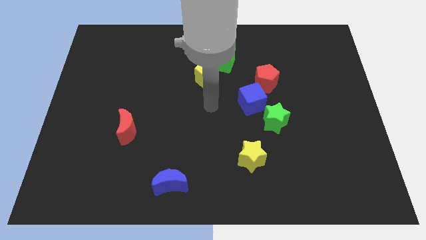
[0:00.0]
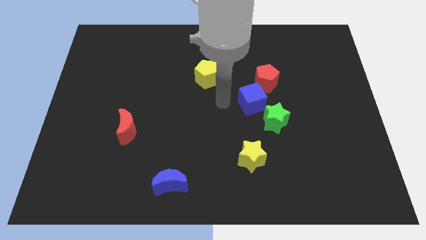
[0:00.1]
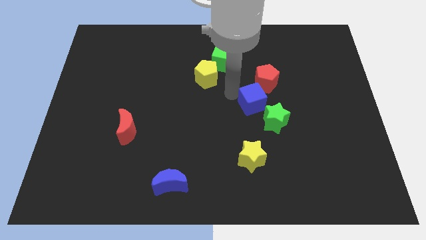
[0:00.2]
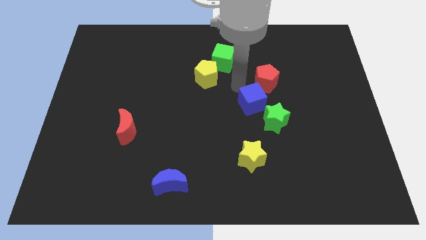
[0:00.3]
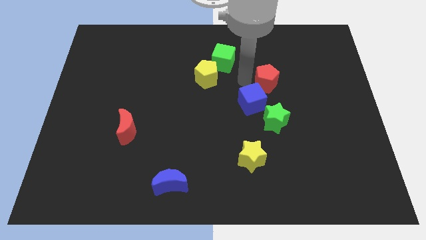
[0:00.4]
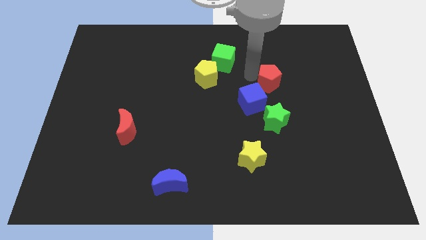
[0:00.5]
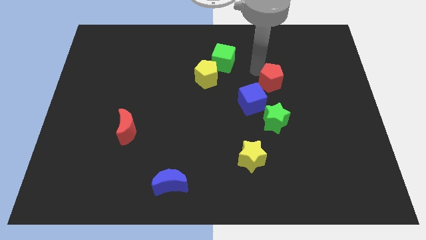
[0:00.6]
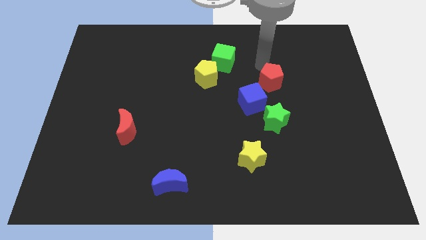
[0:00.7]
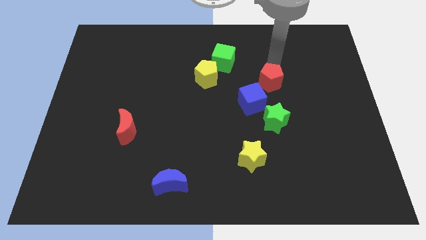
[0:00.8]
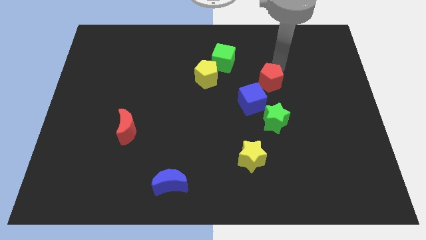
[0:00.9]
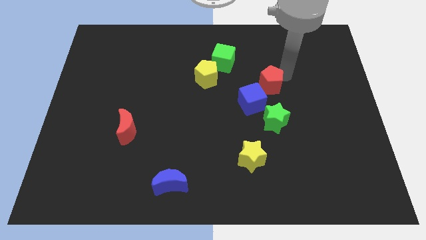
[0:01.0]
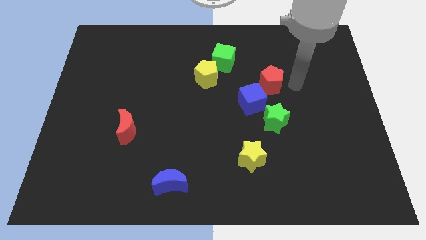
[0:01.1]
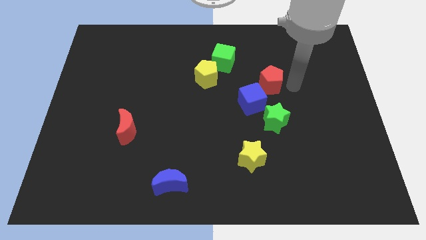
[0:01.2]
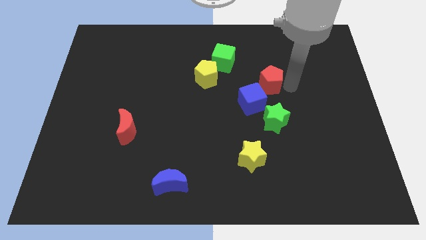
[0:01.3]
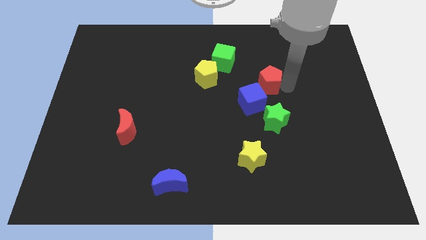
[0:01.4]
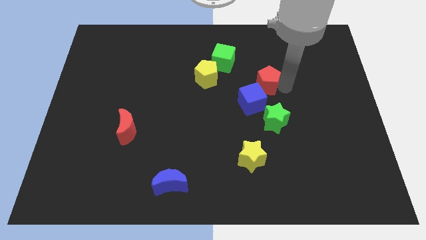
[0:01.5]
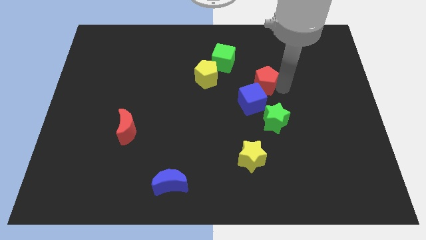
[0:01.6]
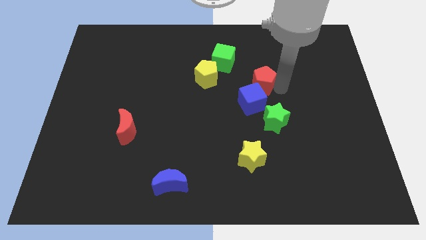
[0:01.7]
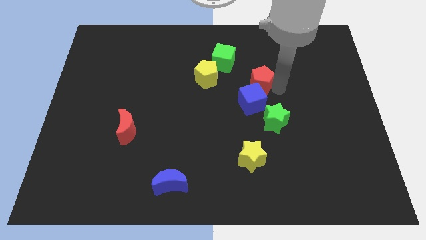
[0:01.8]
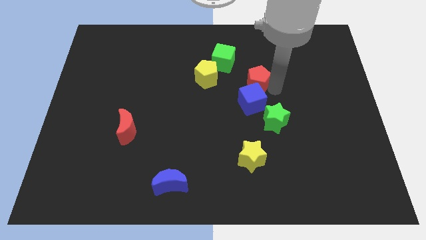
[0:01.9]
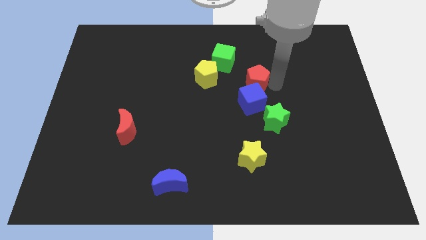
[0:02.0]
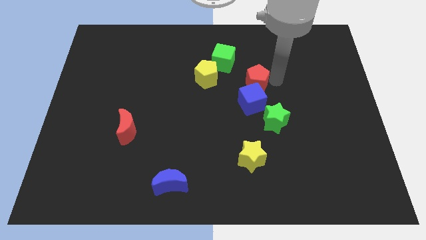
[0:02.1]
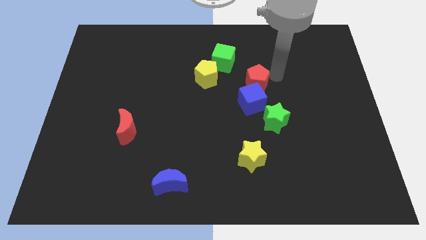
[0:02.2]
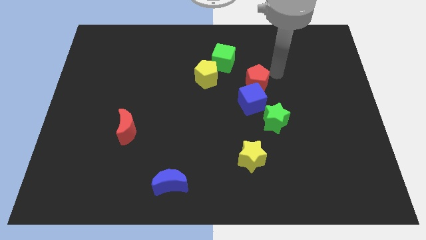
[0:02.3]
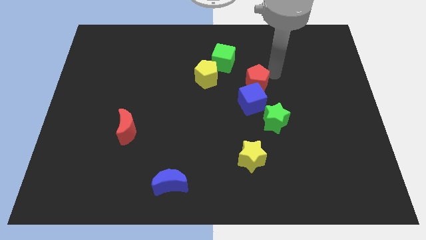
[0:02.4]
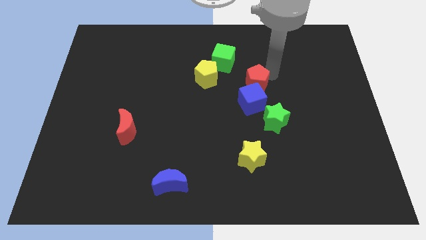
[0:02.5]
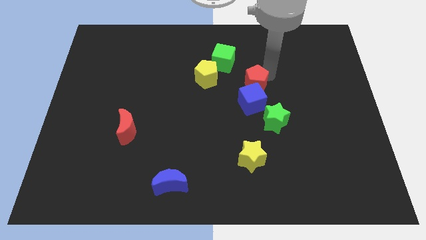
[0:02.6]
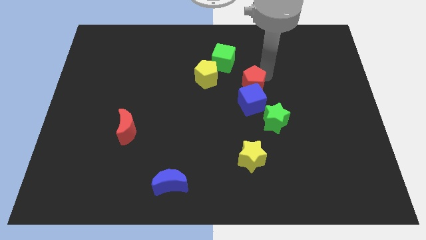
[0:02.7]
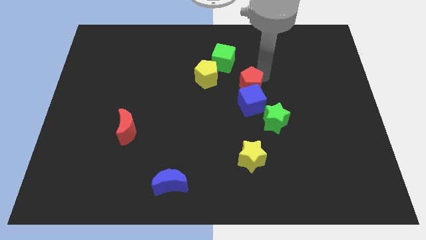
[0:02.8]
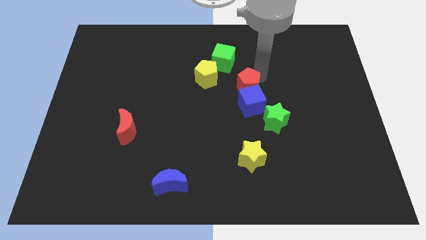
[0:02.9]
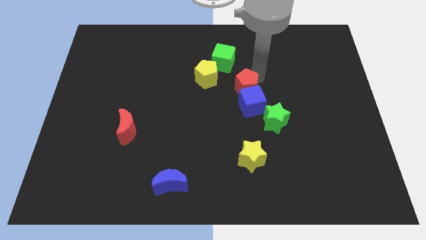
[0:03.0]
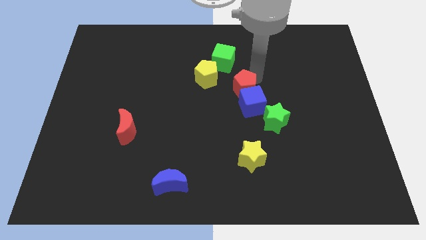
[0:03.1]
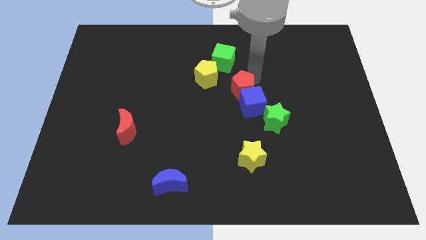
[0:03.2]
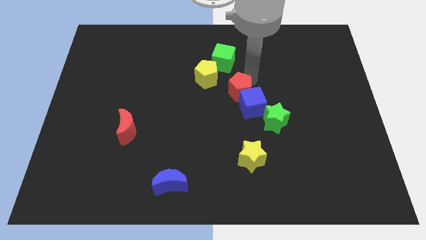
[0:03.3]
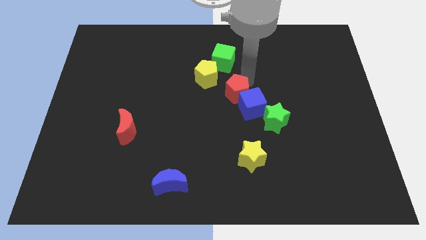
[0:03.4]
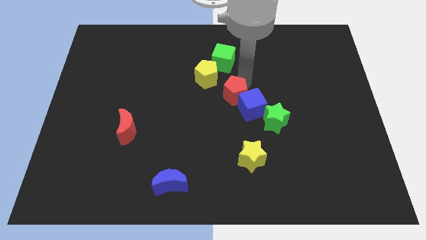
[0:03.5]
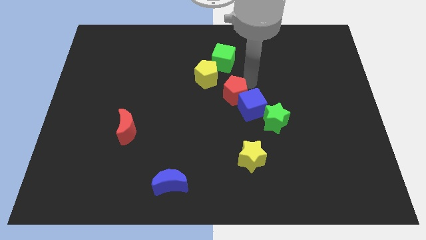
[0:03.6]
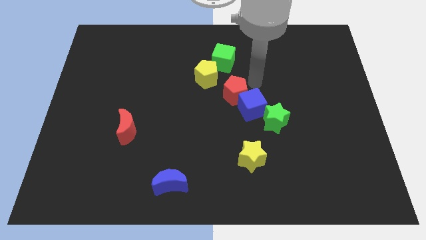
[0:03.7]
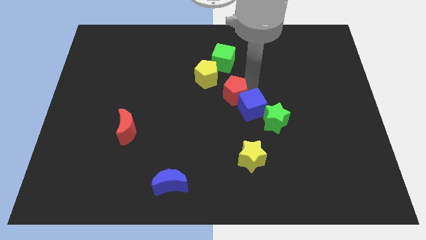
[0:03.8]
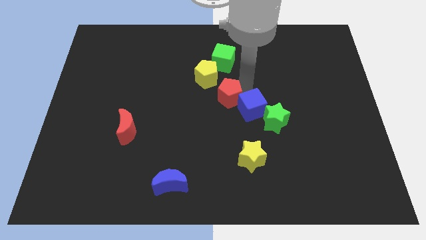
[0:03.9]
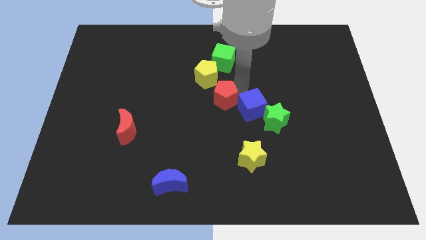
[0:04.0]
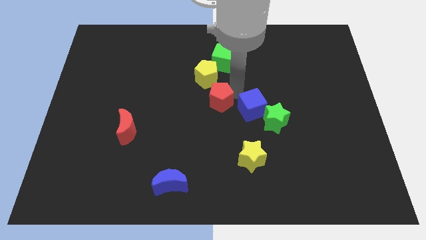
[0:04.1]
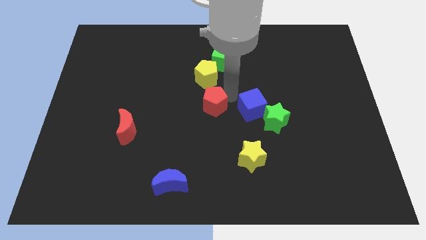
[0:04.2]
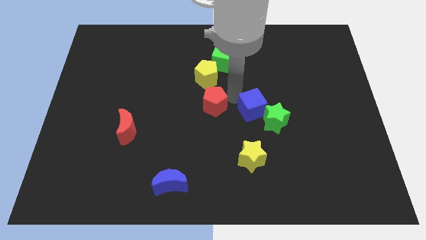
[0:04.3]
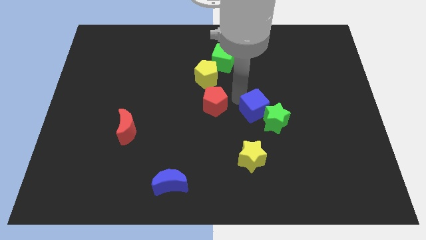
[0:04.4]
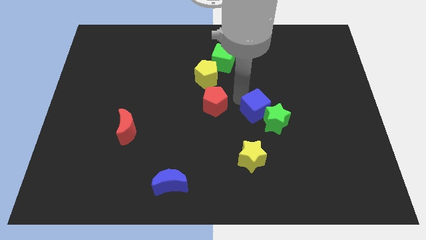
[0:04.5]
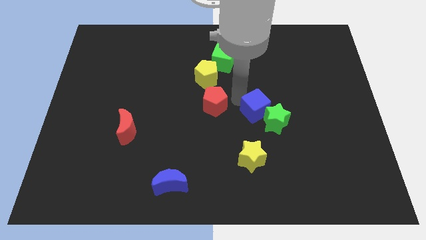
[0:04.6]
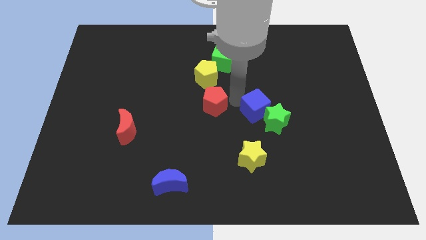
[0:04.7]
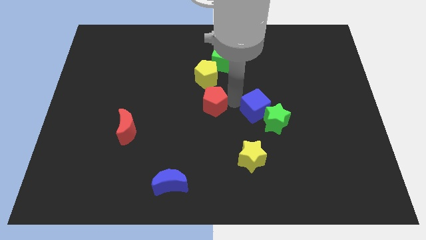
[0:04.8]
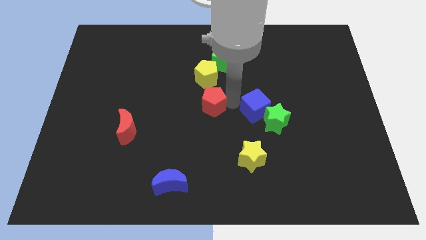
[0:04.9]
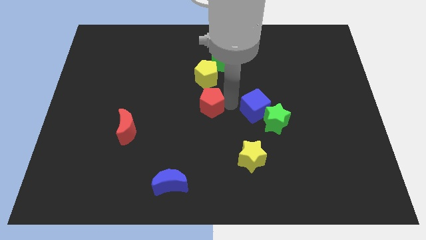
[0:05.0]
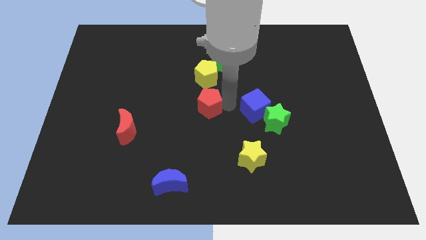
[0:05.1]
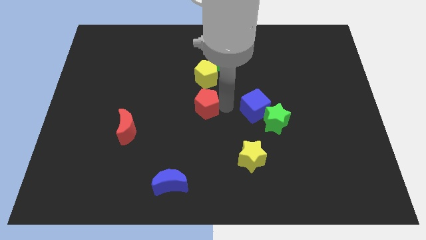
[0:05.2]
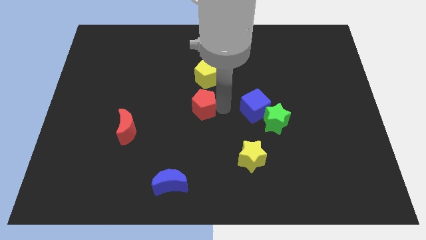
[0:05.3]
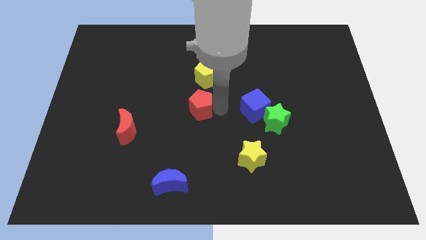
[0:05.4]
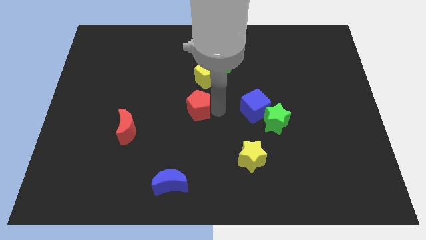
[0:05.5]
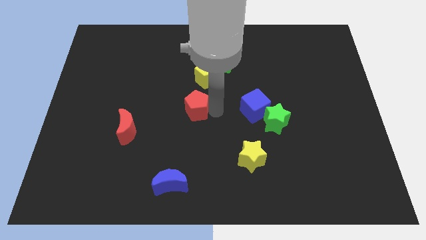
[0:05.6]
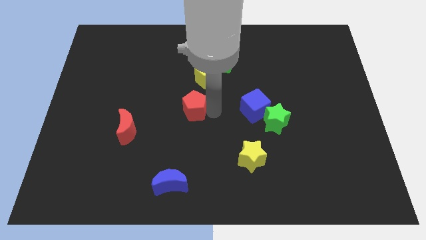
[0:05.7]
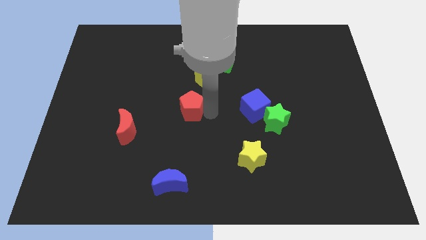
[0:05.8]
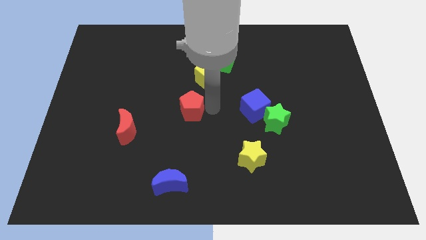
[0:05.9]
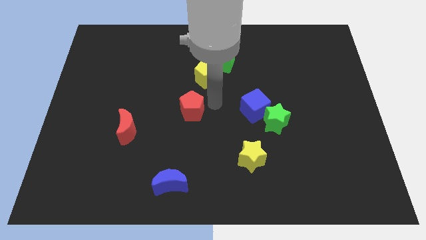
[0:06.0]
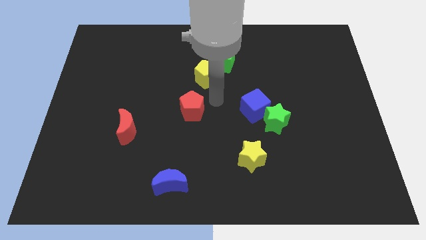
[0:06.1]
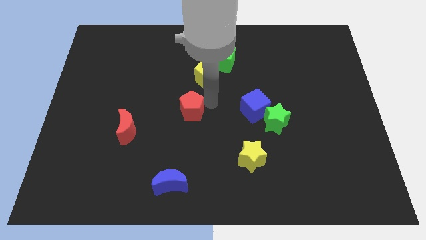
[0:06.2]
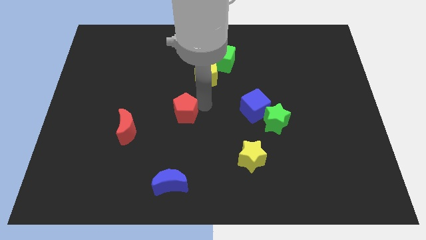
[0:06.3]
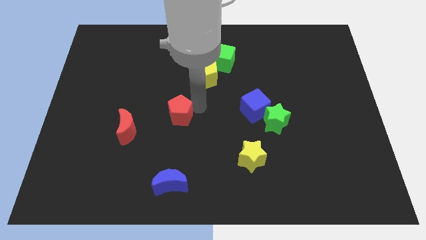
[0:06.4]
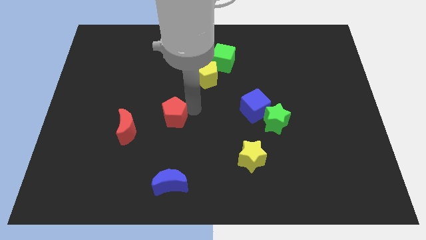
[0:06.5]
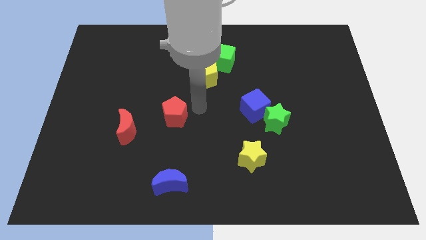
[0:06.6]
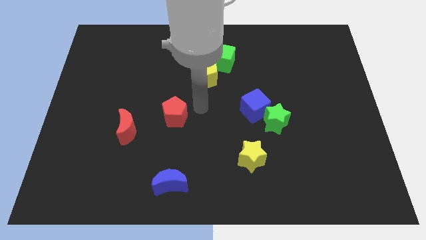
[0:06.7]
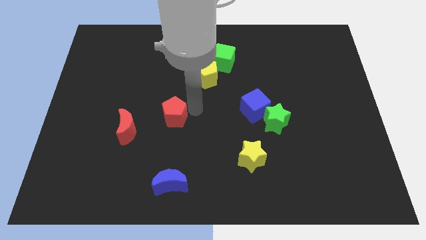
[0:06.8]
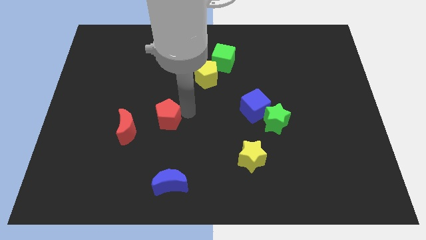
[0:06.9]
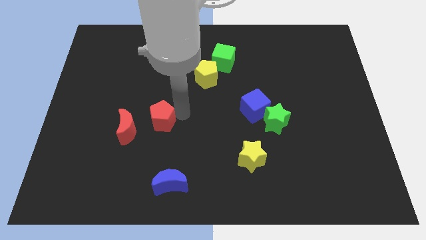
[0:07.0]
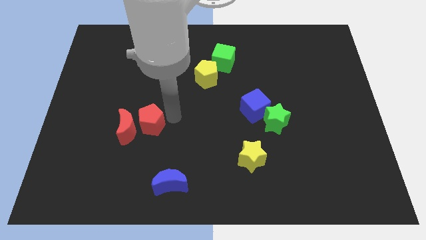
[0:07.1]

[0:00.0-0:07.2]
slide the red pentagon towards the red moon
